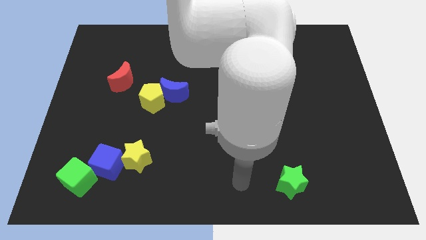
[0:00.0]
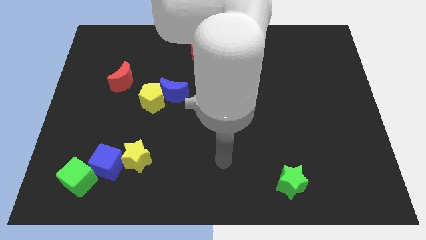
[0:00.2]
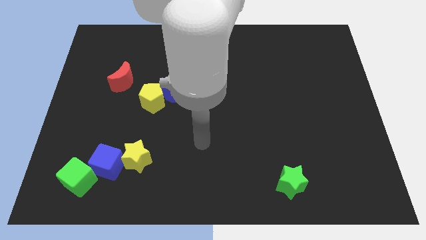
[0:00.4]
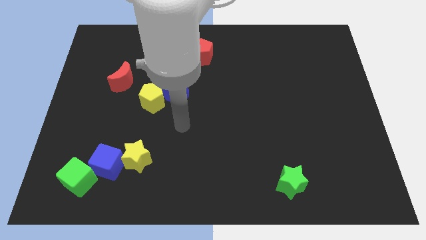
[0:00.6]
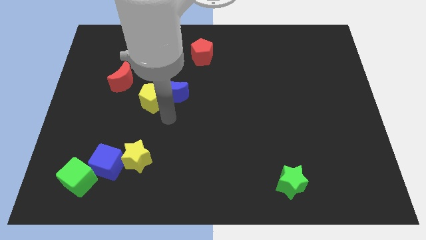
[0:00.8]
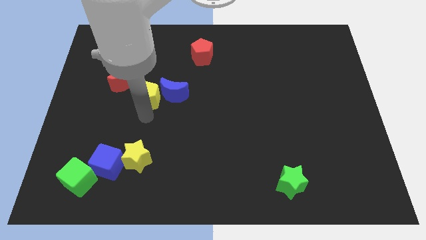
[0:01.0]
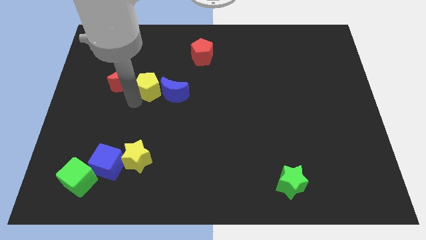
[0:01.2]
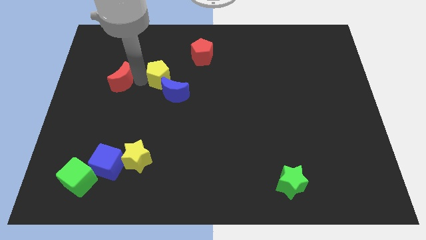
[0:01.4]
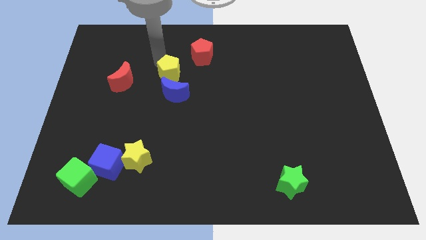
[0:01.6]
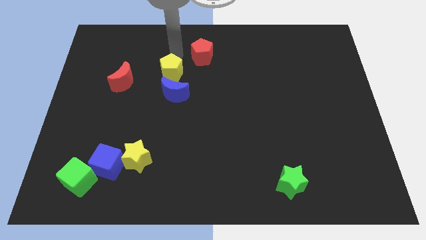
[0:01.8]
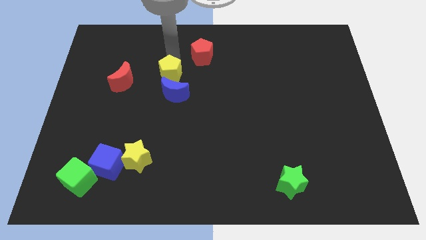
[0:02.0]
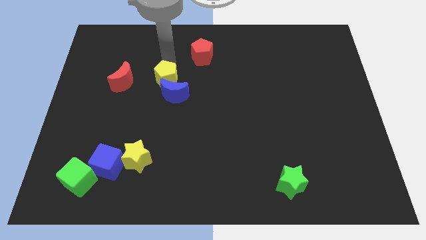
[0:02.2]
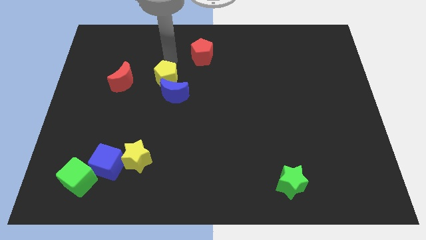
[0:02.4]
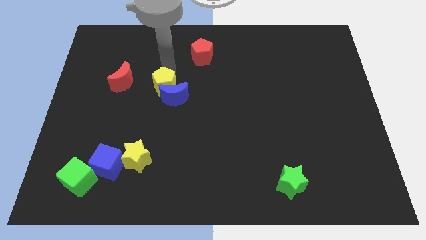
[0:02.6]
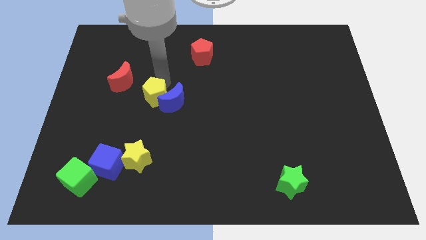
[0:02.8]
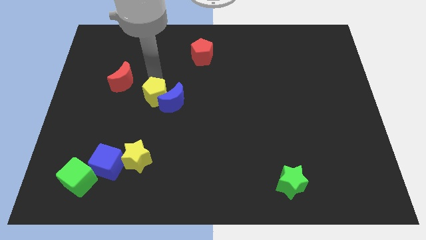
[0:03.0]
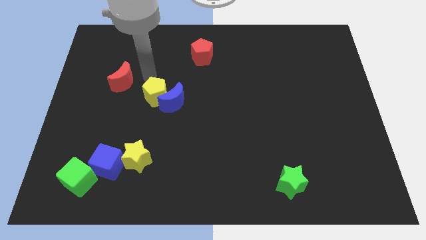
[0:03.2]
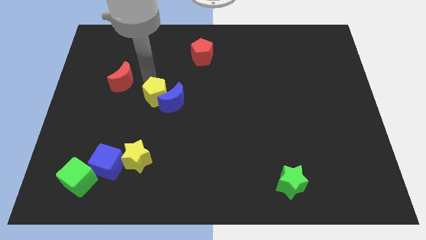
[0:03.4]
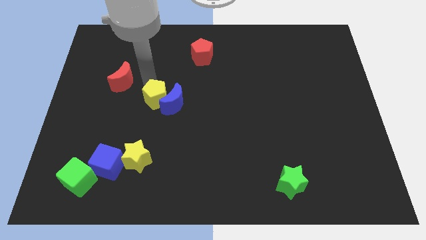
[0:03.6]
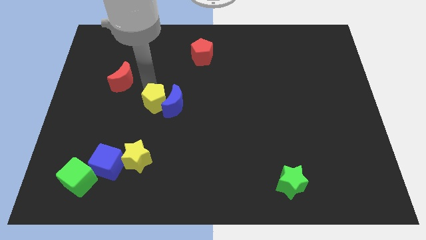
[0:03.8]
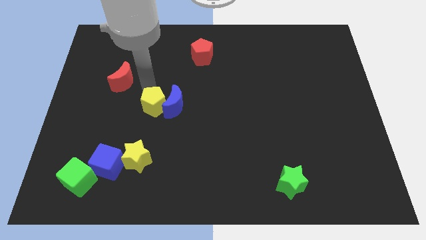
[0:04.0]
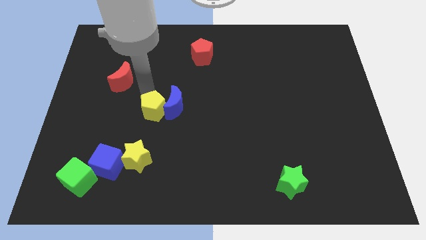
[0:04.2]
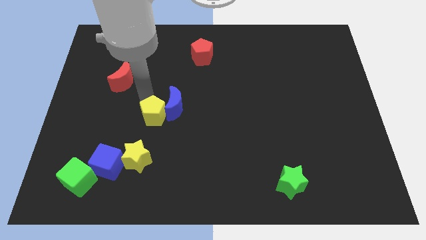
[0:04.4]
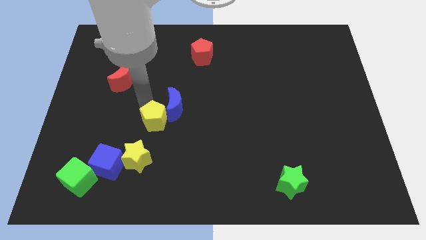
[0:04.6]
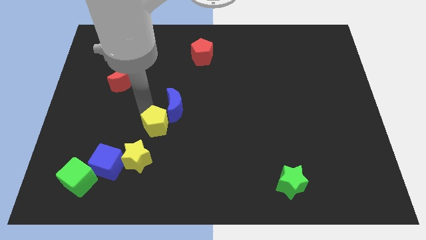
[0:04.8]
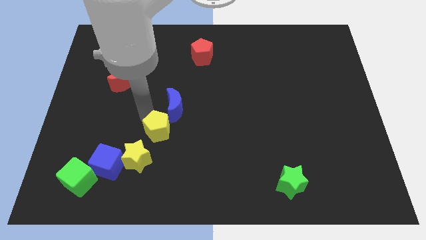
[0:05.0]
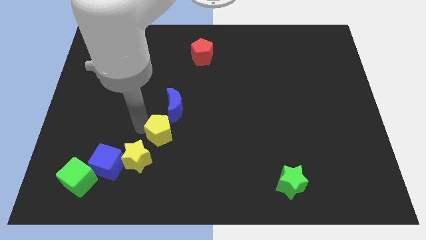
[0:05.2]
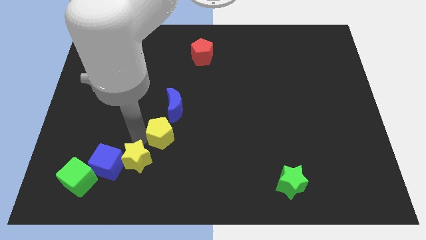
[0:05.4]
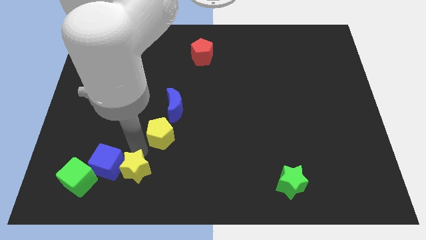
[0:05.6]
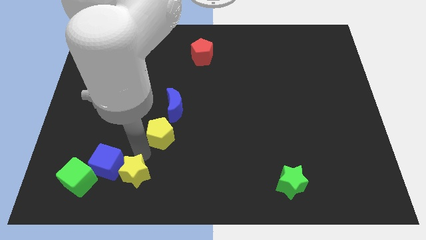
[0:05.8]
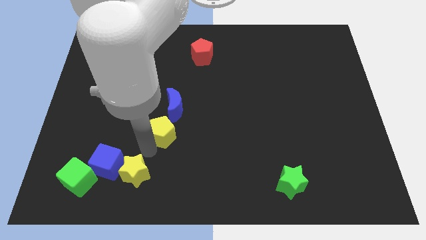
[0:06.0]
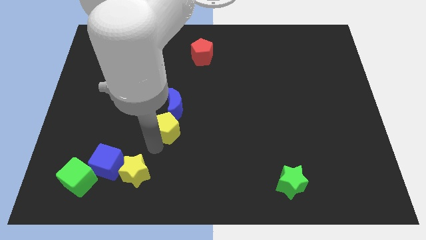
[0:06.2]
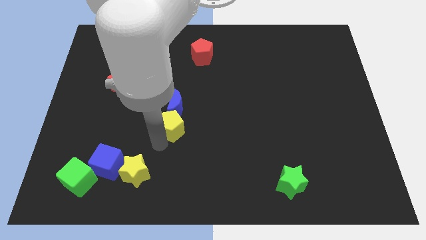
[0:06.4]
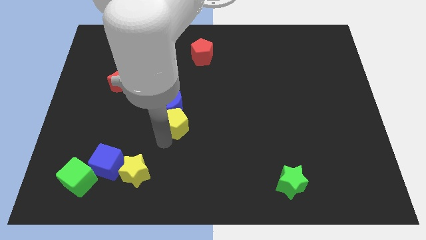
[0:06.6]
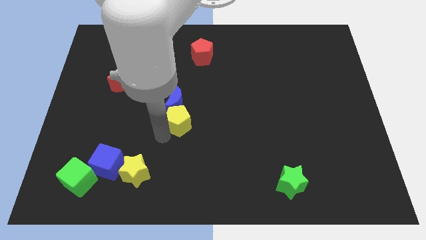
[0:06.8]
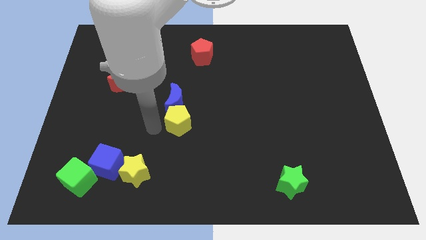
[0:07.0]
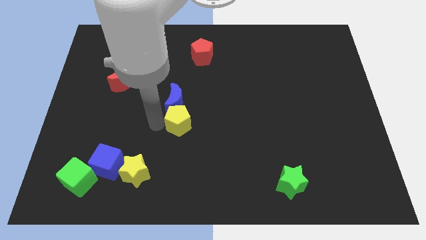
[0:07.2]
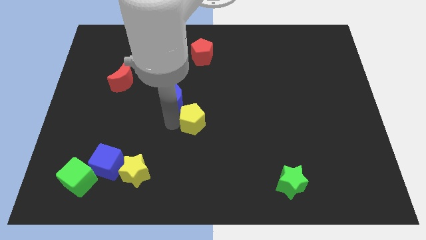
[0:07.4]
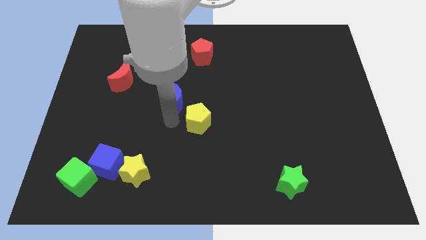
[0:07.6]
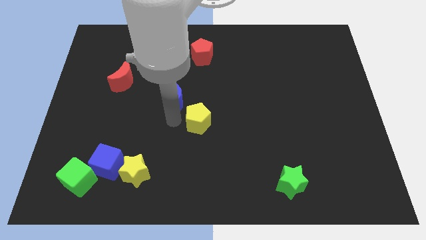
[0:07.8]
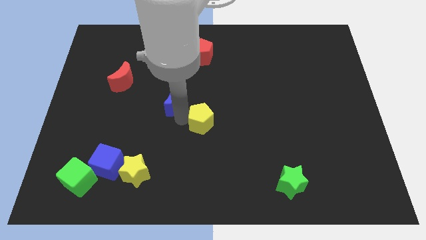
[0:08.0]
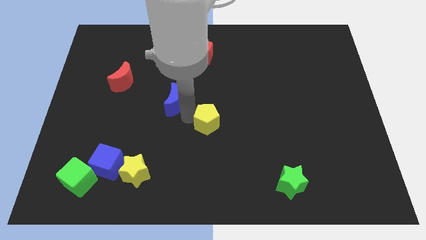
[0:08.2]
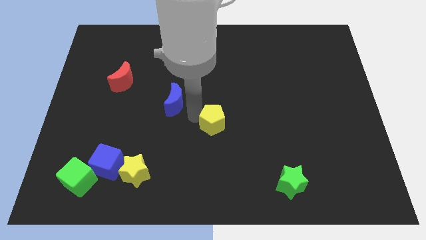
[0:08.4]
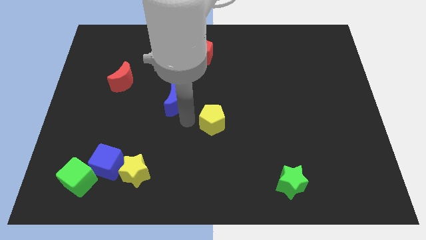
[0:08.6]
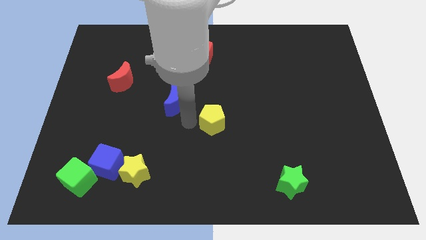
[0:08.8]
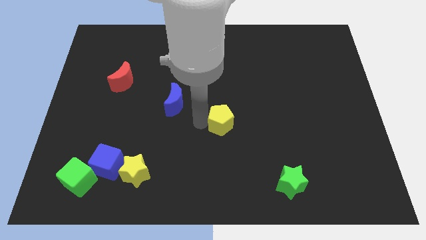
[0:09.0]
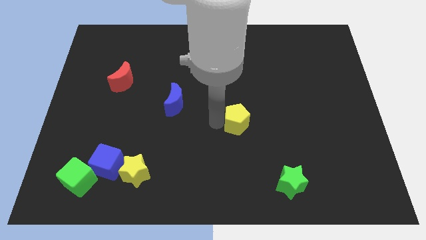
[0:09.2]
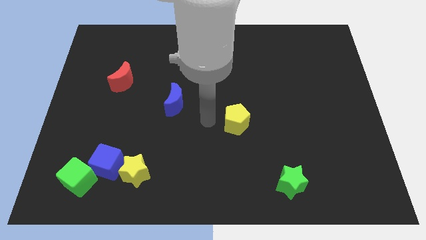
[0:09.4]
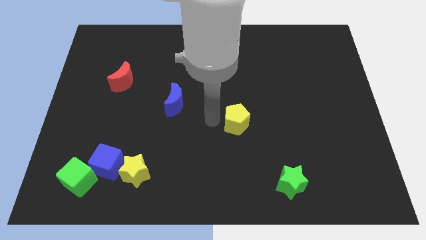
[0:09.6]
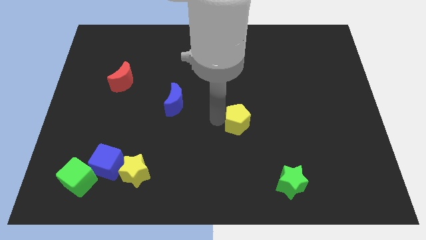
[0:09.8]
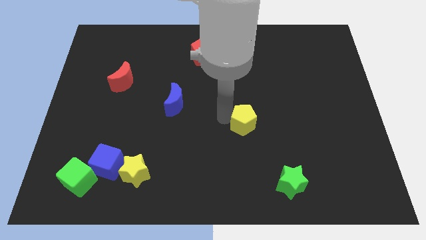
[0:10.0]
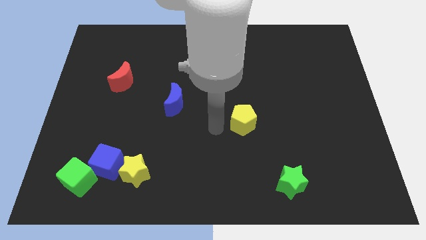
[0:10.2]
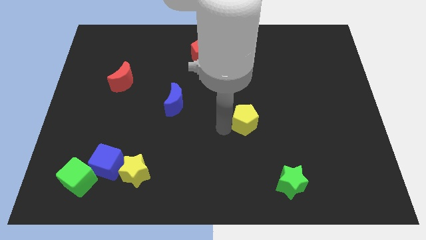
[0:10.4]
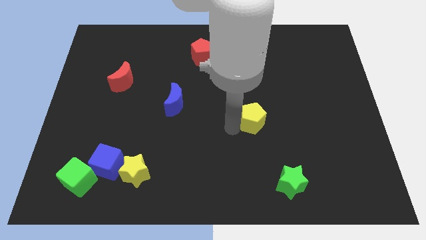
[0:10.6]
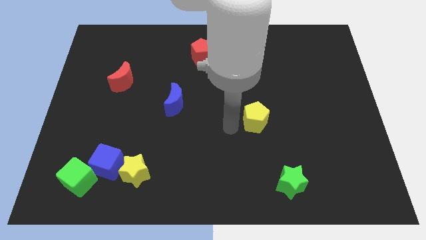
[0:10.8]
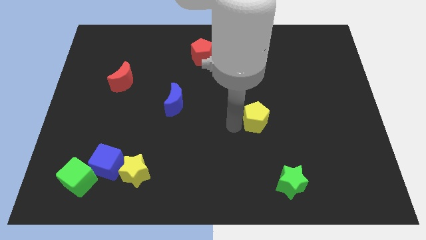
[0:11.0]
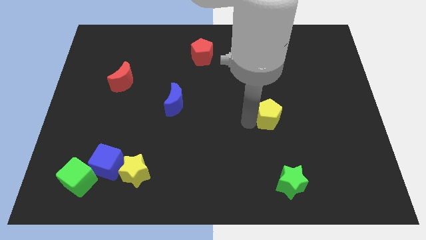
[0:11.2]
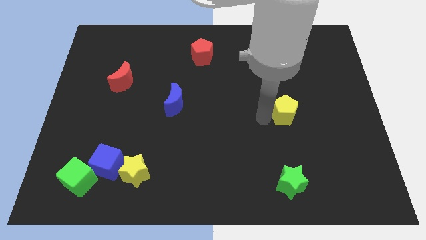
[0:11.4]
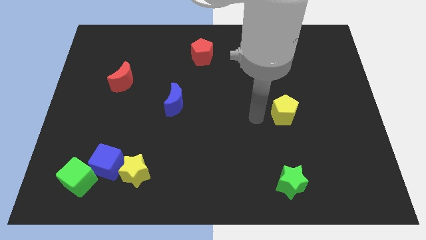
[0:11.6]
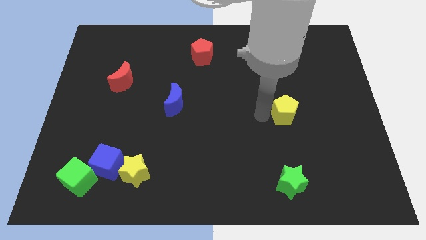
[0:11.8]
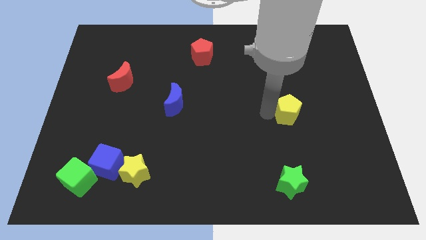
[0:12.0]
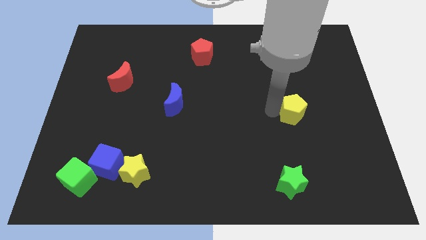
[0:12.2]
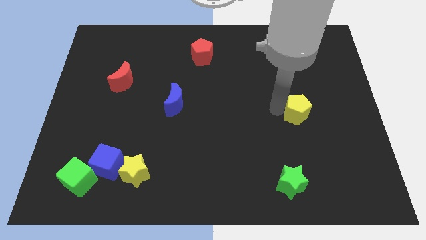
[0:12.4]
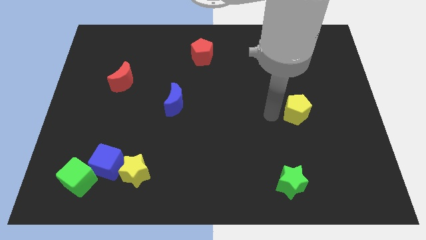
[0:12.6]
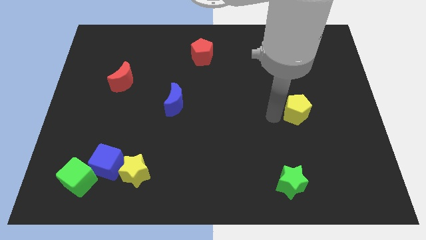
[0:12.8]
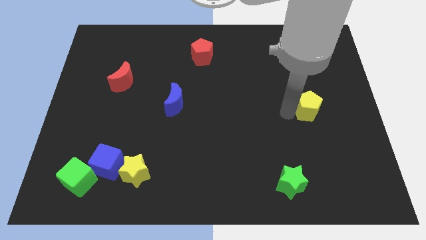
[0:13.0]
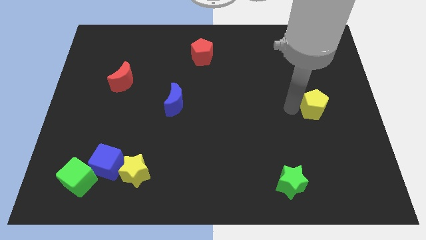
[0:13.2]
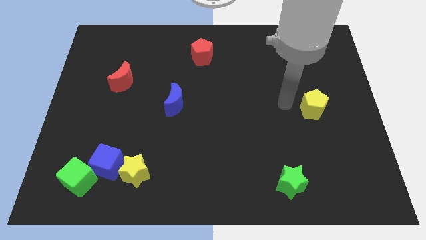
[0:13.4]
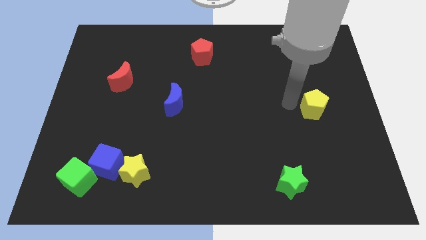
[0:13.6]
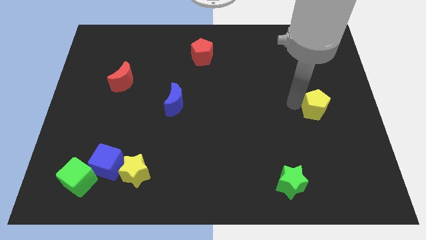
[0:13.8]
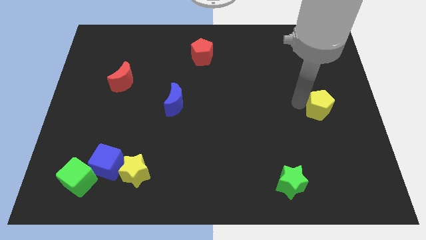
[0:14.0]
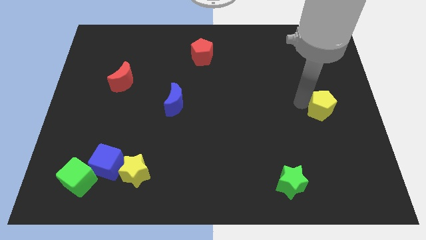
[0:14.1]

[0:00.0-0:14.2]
move the yellow pentagon to the right side of the board
